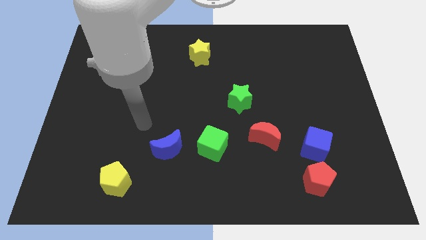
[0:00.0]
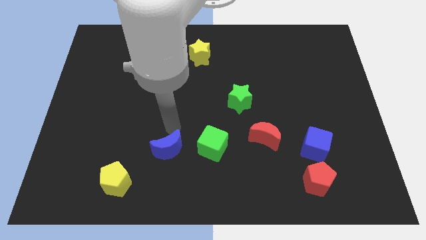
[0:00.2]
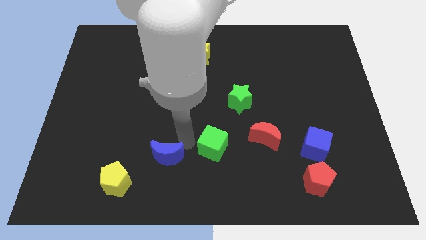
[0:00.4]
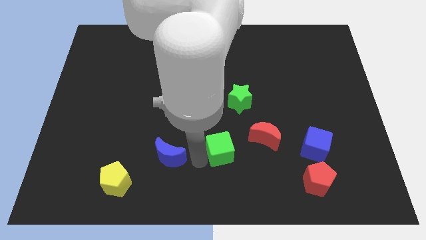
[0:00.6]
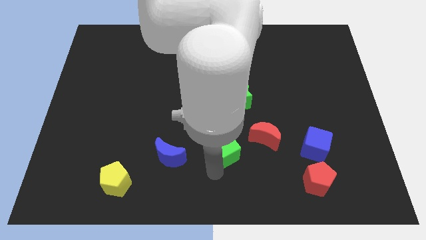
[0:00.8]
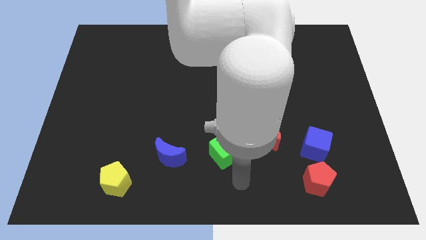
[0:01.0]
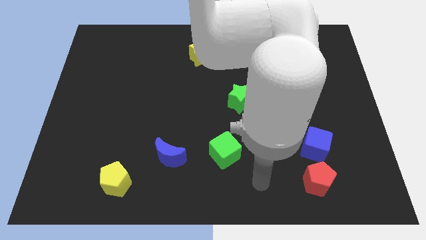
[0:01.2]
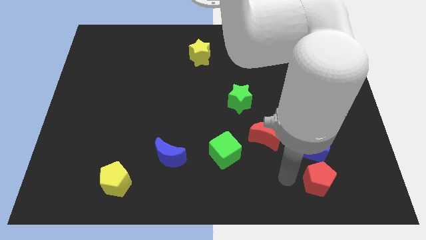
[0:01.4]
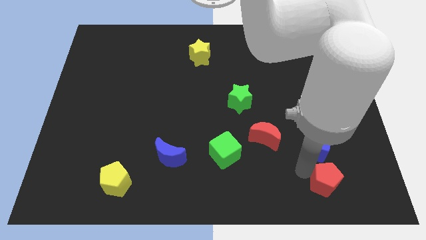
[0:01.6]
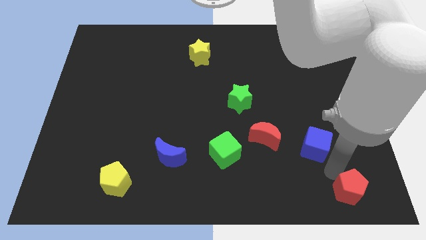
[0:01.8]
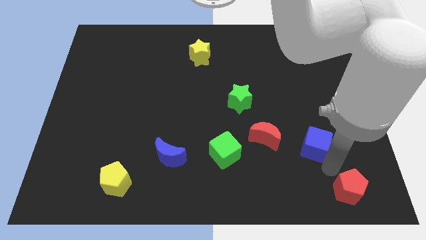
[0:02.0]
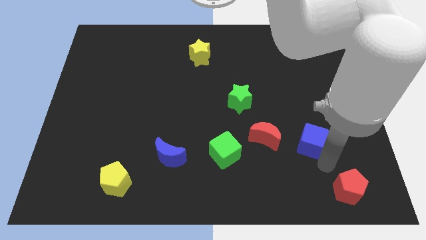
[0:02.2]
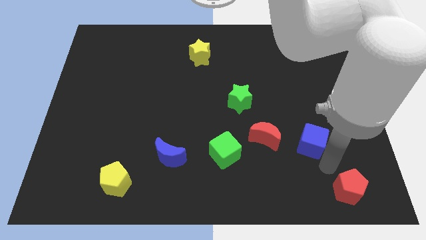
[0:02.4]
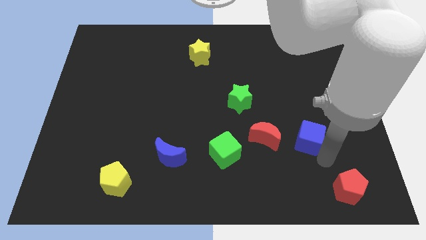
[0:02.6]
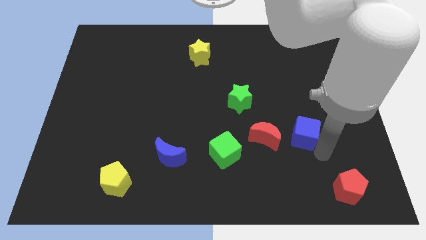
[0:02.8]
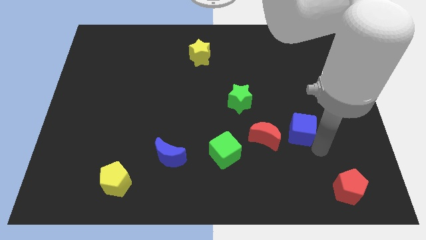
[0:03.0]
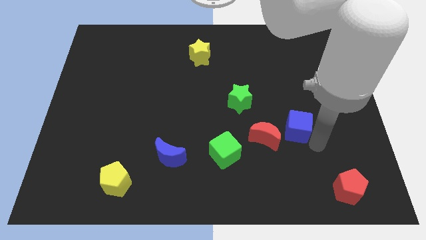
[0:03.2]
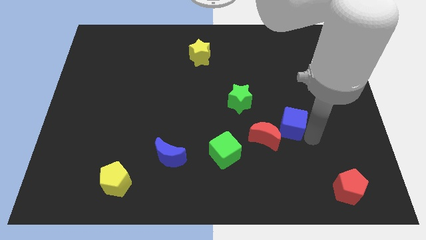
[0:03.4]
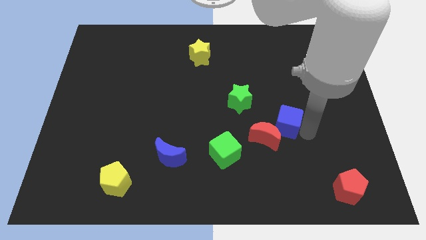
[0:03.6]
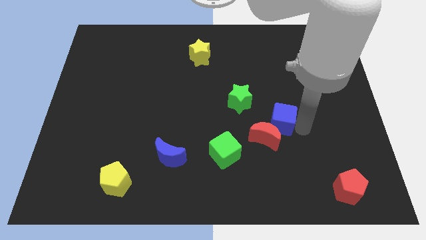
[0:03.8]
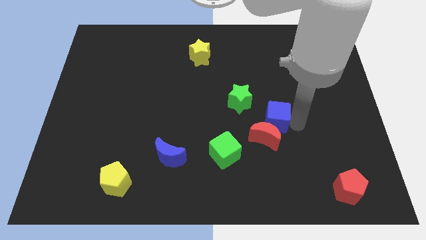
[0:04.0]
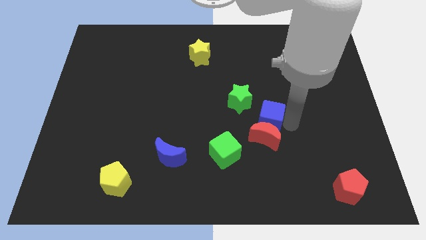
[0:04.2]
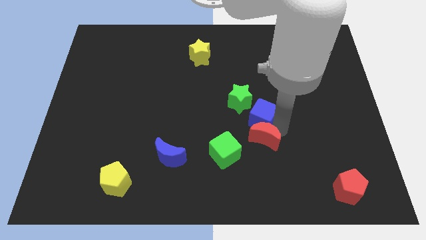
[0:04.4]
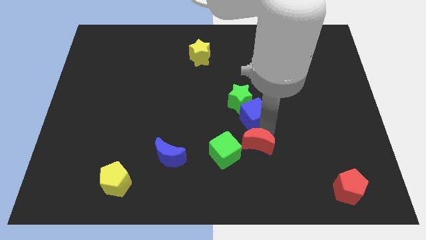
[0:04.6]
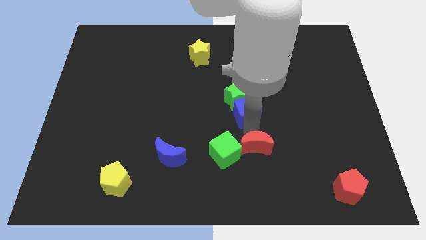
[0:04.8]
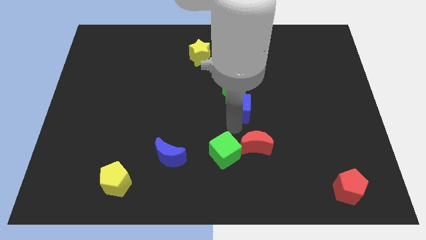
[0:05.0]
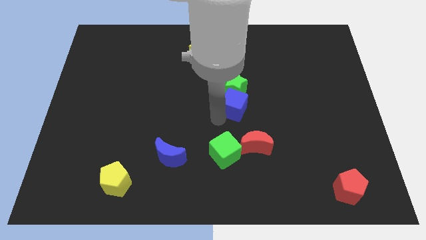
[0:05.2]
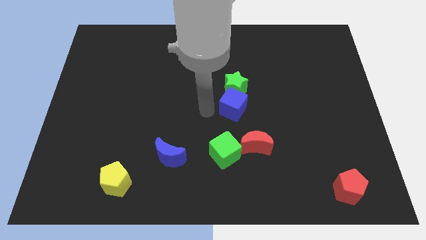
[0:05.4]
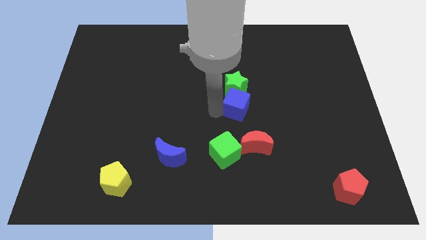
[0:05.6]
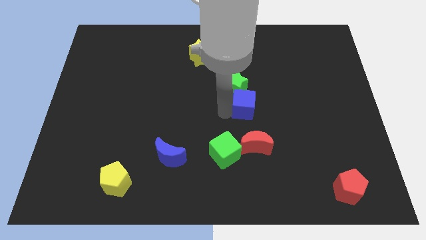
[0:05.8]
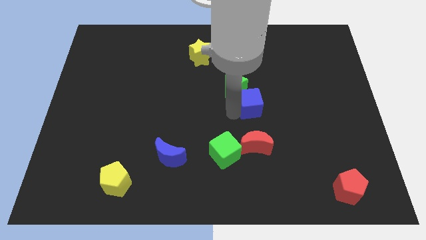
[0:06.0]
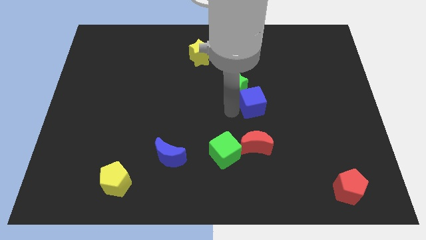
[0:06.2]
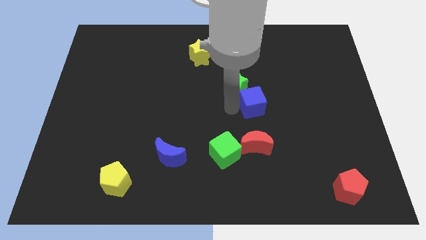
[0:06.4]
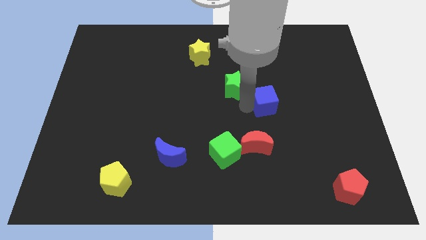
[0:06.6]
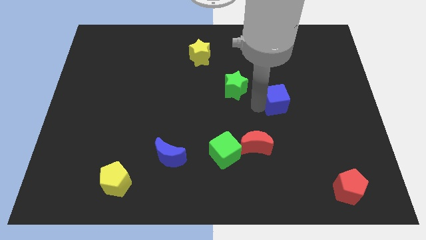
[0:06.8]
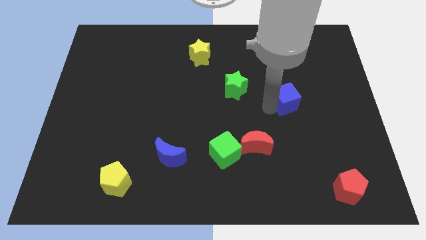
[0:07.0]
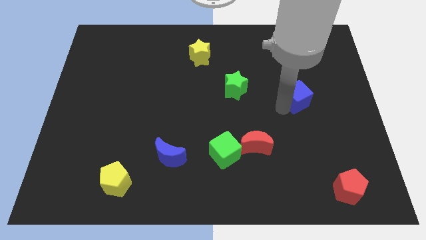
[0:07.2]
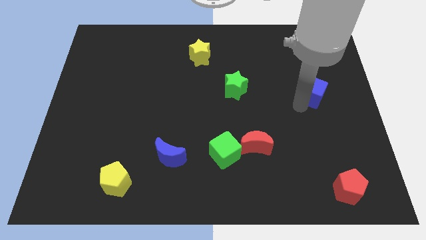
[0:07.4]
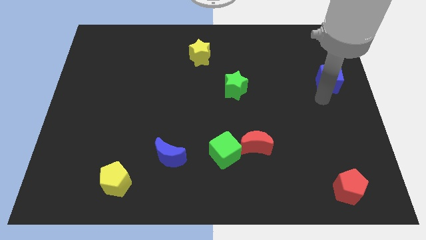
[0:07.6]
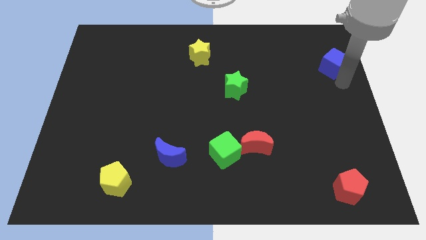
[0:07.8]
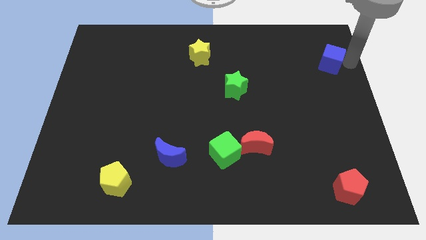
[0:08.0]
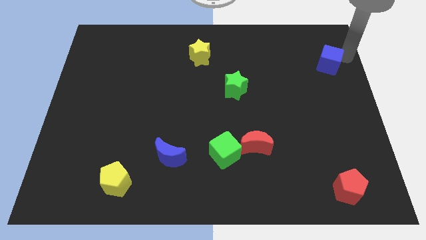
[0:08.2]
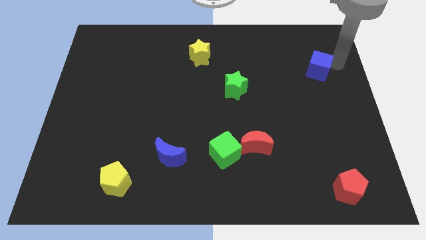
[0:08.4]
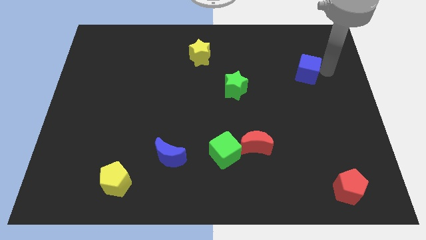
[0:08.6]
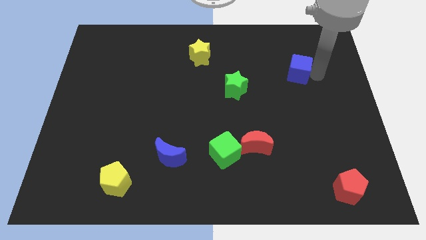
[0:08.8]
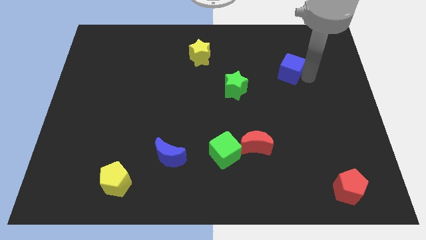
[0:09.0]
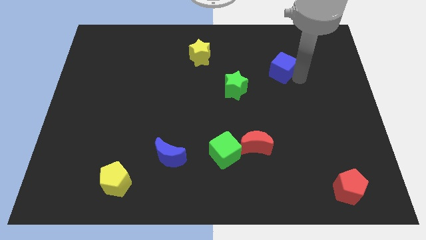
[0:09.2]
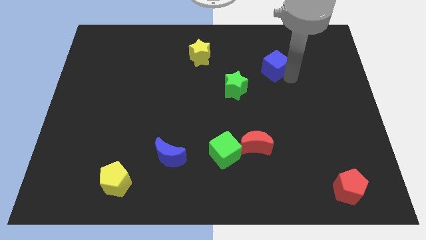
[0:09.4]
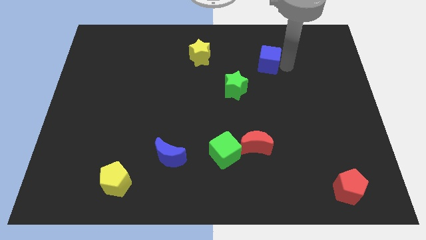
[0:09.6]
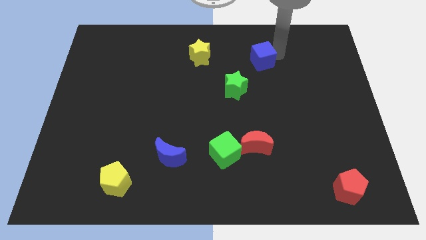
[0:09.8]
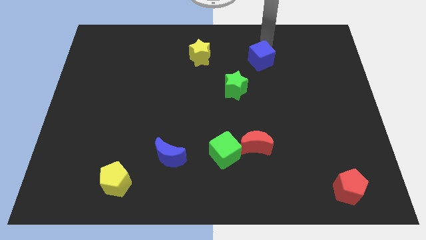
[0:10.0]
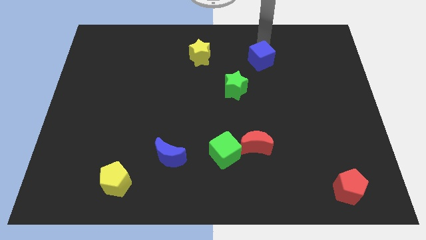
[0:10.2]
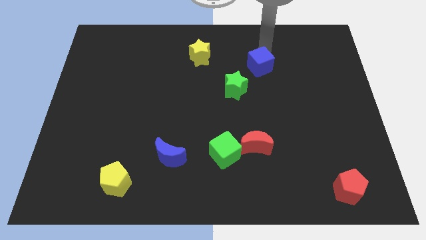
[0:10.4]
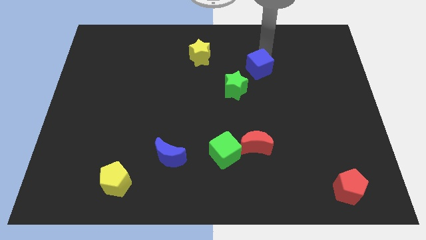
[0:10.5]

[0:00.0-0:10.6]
move the blue cube up and to the left

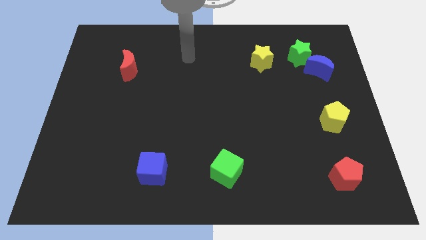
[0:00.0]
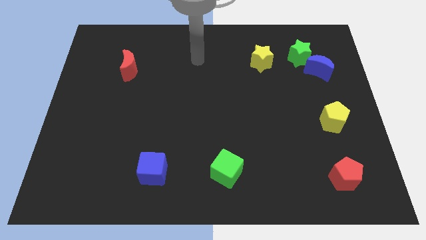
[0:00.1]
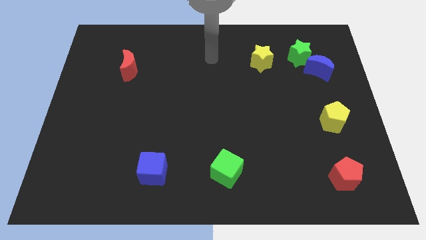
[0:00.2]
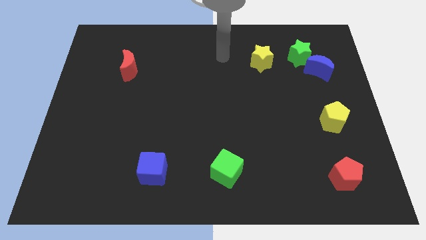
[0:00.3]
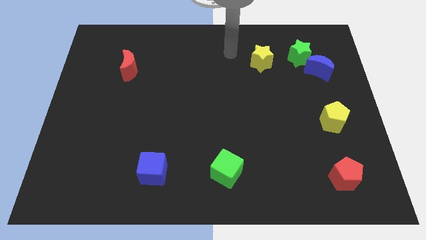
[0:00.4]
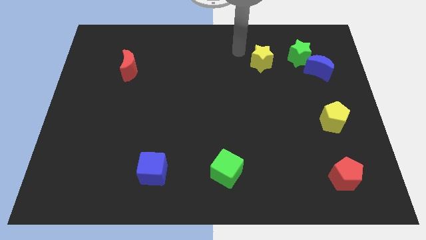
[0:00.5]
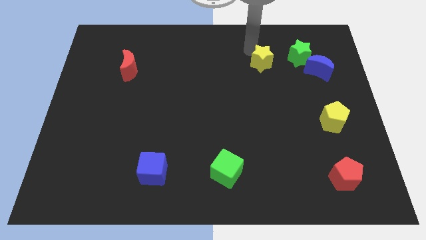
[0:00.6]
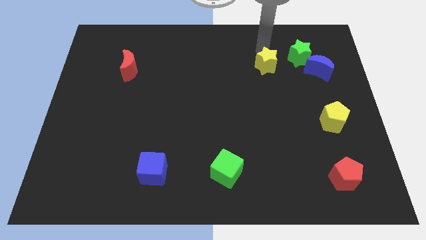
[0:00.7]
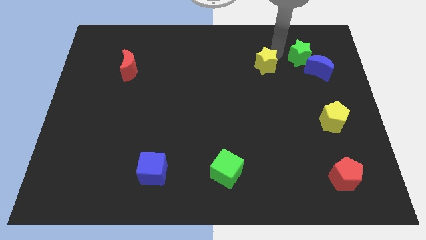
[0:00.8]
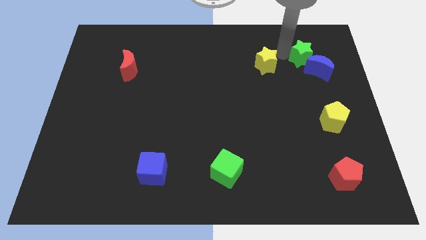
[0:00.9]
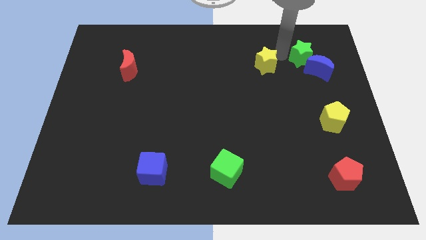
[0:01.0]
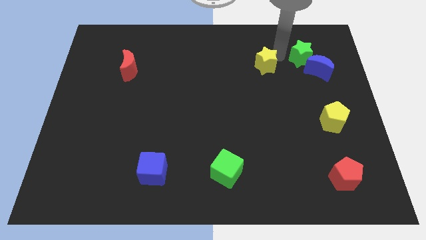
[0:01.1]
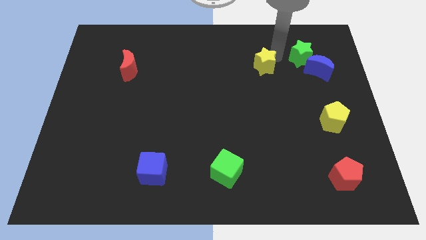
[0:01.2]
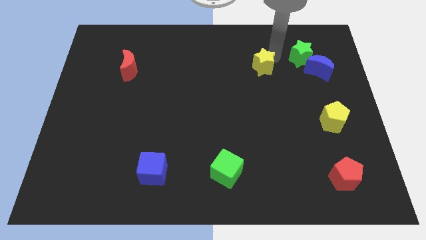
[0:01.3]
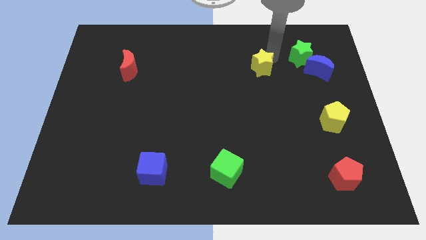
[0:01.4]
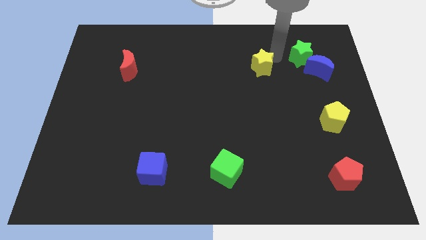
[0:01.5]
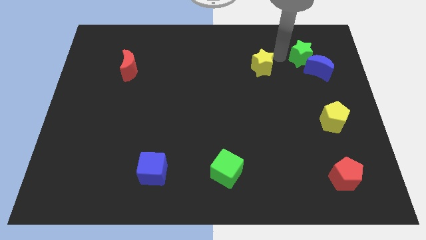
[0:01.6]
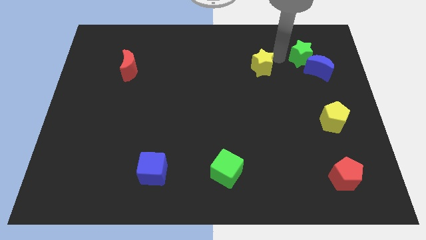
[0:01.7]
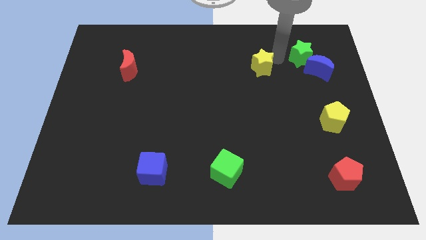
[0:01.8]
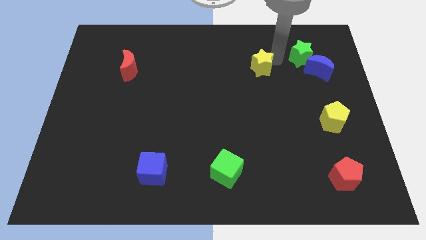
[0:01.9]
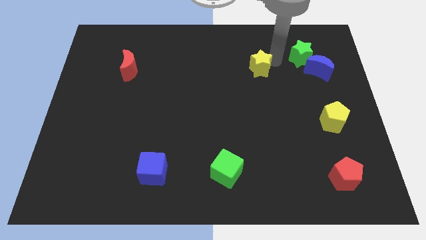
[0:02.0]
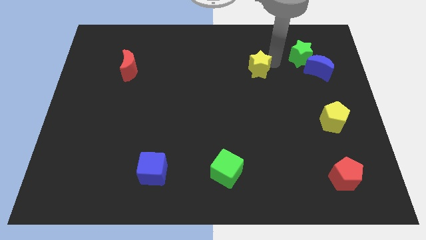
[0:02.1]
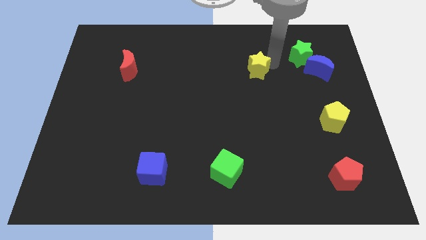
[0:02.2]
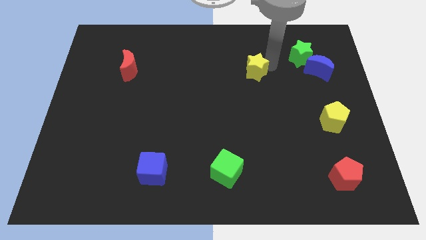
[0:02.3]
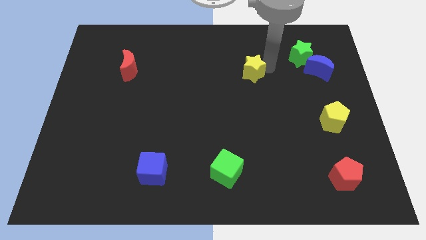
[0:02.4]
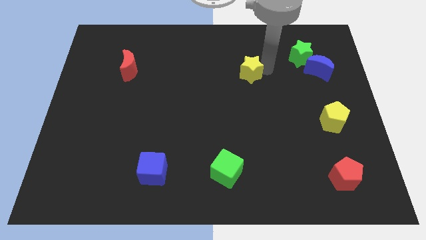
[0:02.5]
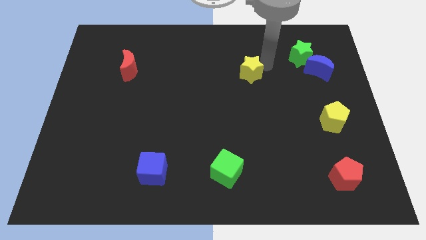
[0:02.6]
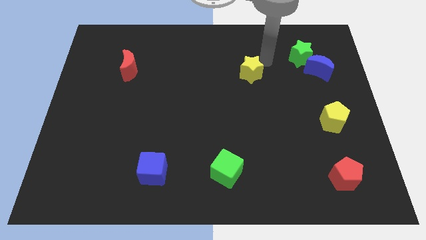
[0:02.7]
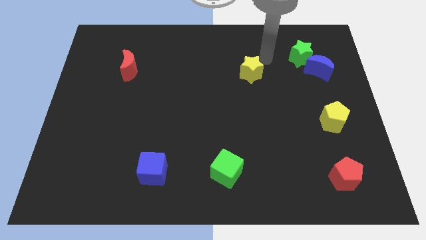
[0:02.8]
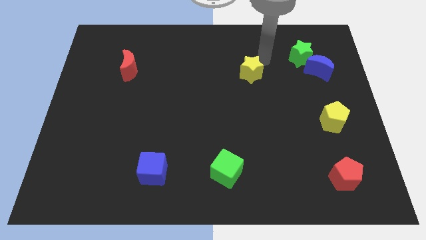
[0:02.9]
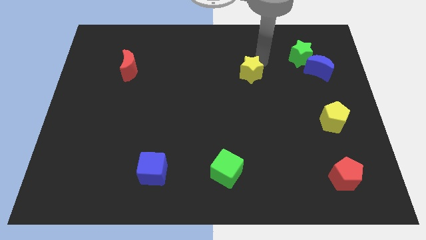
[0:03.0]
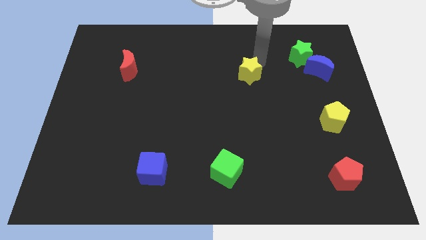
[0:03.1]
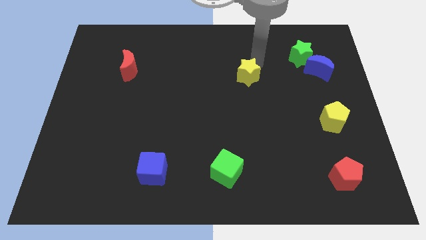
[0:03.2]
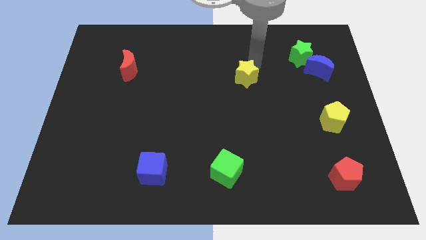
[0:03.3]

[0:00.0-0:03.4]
move the yellow star down and left a bit
